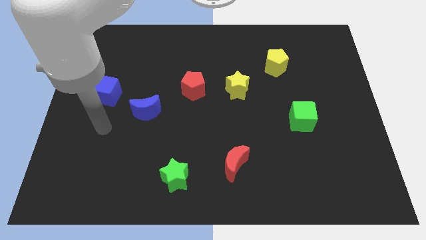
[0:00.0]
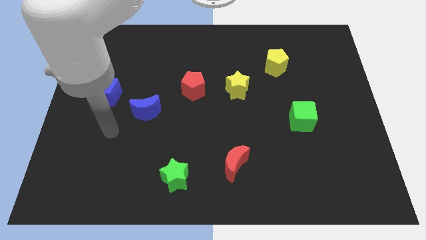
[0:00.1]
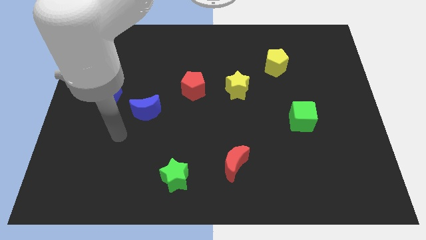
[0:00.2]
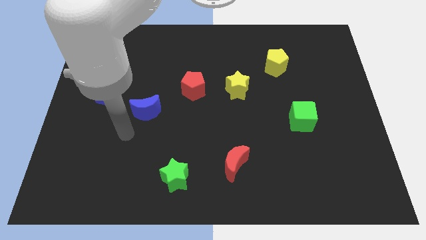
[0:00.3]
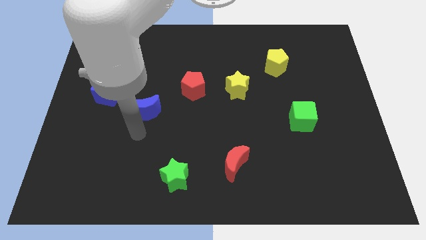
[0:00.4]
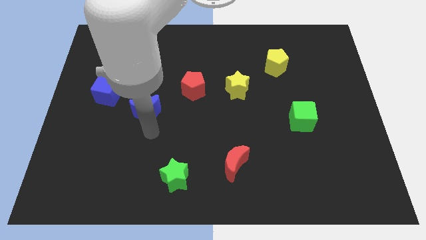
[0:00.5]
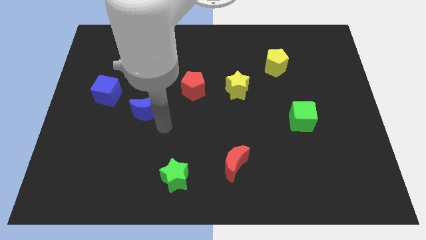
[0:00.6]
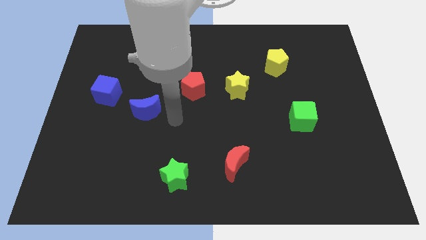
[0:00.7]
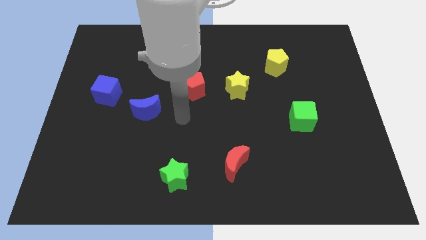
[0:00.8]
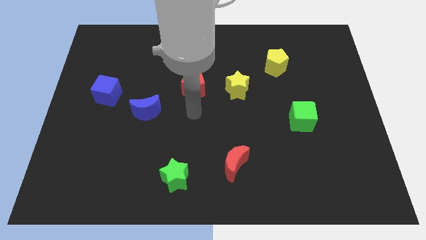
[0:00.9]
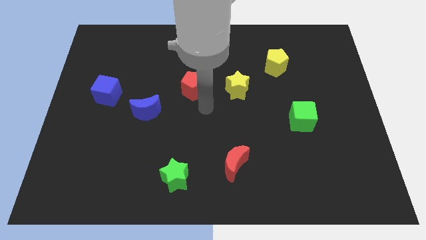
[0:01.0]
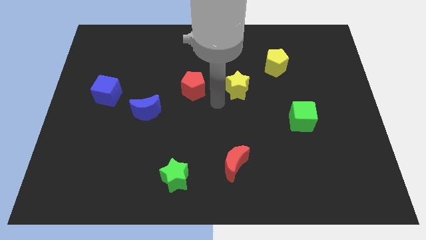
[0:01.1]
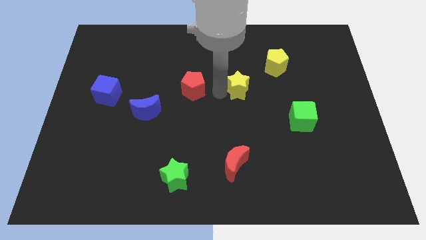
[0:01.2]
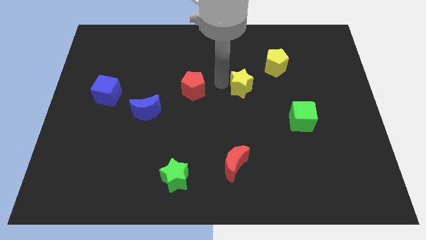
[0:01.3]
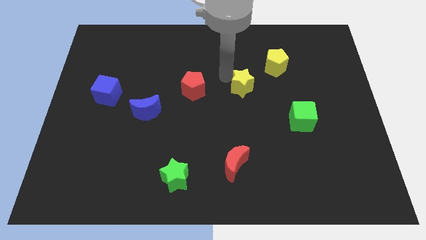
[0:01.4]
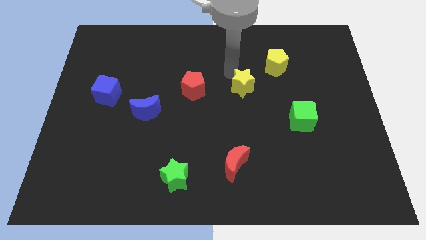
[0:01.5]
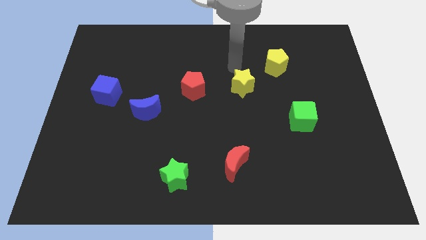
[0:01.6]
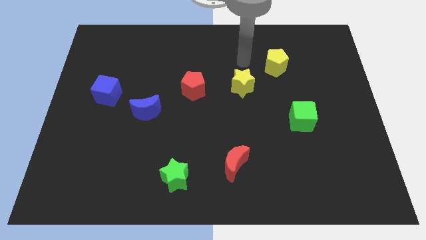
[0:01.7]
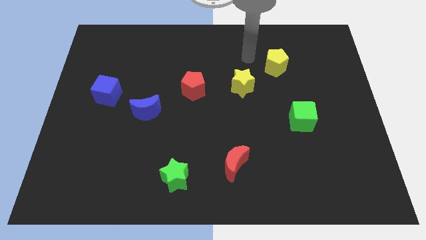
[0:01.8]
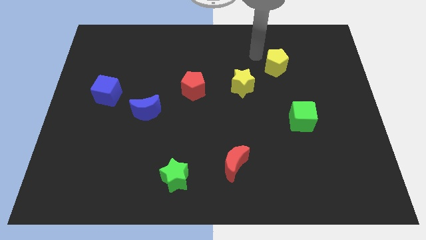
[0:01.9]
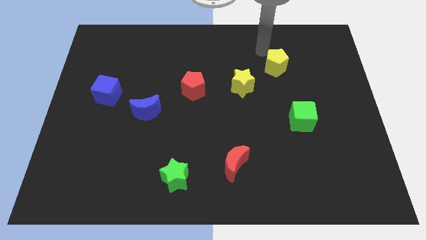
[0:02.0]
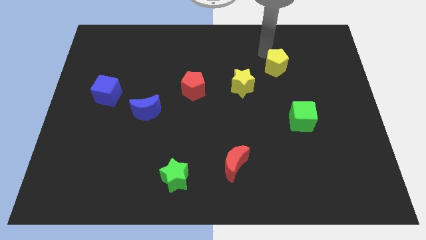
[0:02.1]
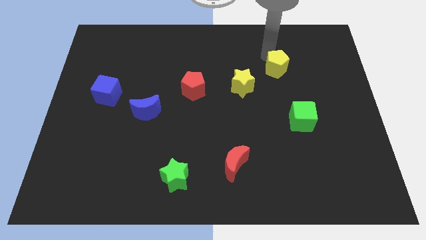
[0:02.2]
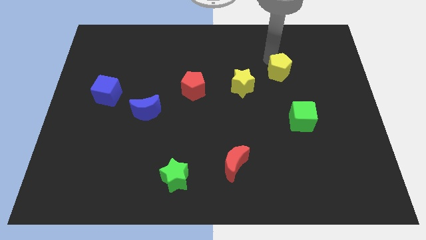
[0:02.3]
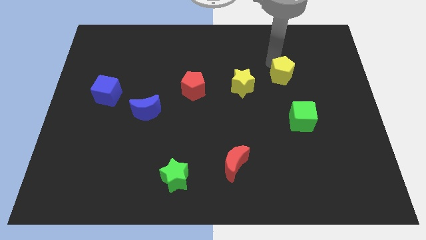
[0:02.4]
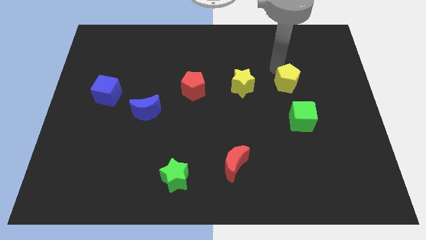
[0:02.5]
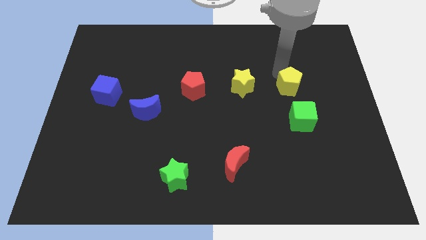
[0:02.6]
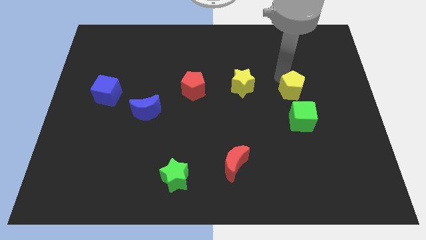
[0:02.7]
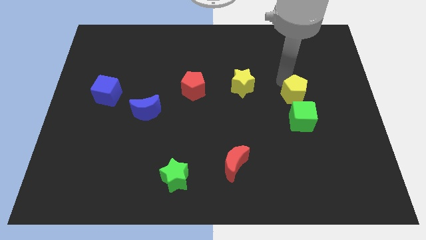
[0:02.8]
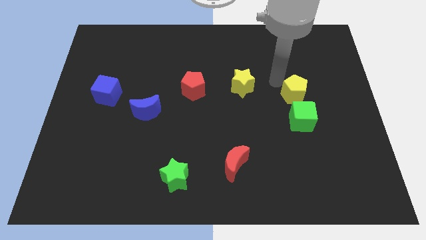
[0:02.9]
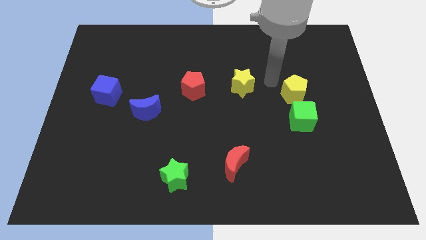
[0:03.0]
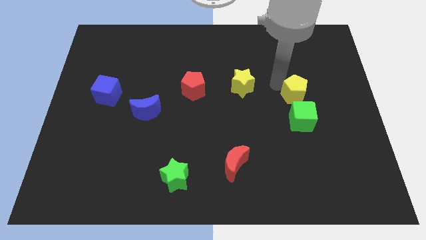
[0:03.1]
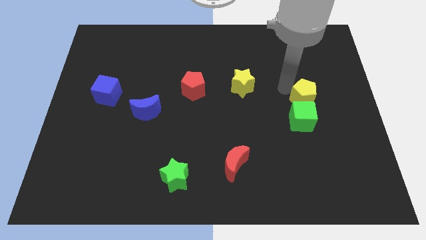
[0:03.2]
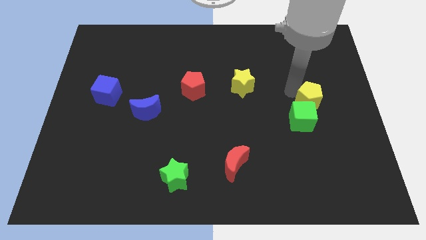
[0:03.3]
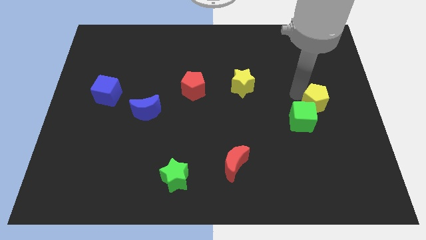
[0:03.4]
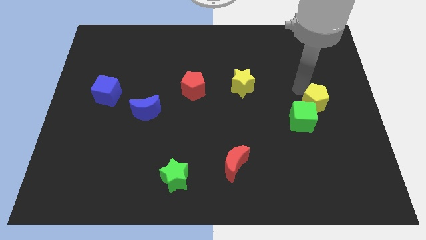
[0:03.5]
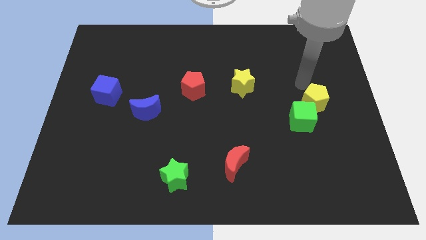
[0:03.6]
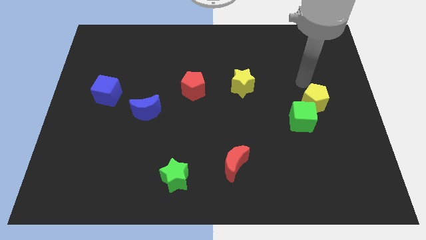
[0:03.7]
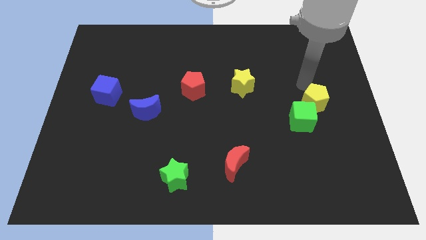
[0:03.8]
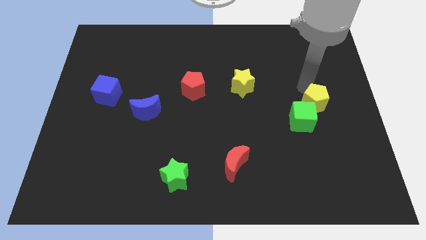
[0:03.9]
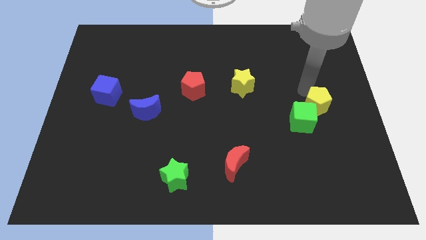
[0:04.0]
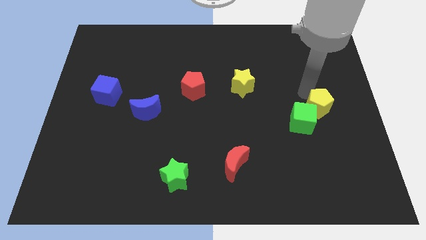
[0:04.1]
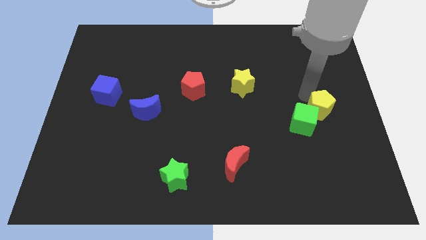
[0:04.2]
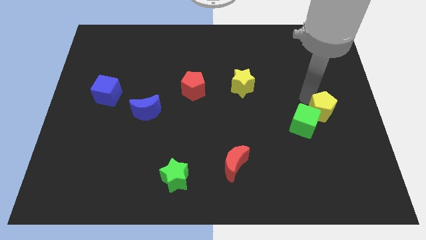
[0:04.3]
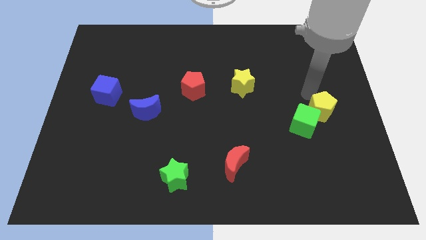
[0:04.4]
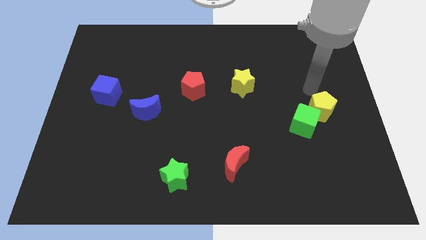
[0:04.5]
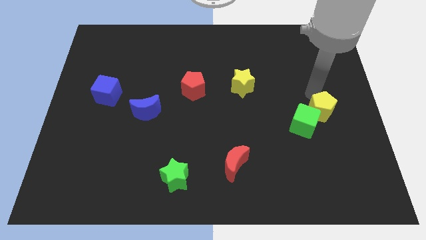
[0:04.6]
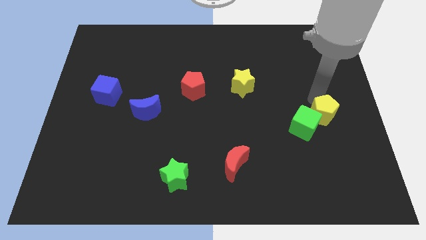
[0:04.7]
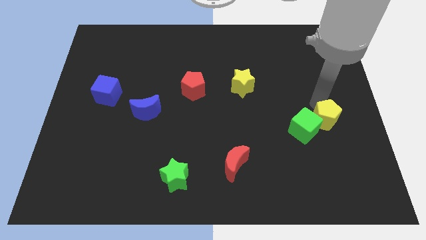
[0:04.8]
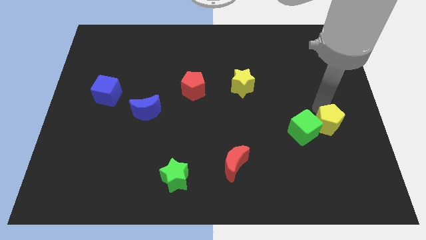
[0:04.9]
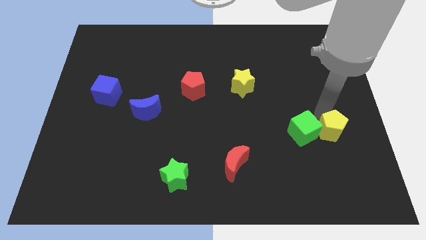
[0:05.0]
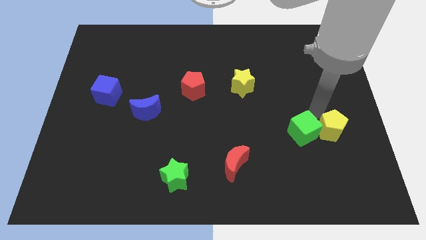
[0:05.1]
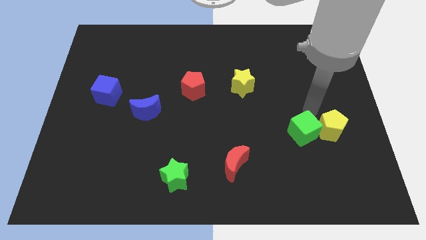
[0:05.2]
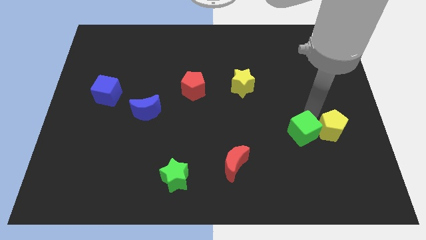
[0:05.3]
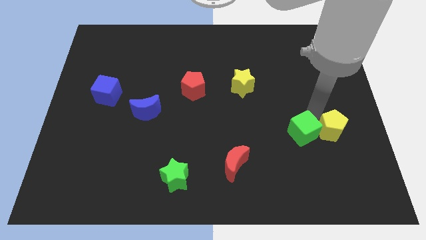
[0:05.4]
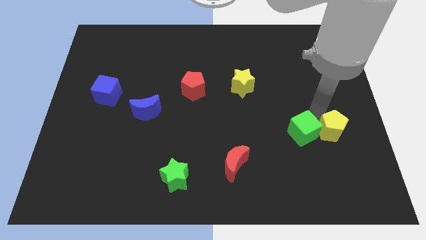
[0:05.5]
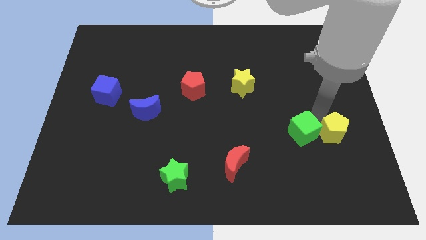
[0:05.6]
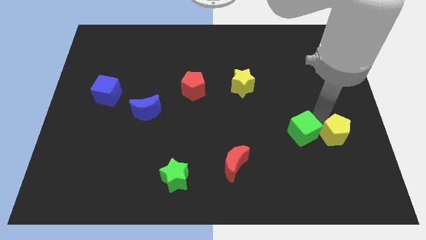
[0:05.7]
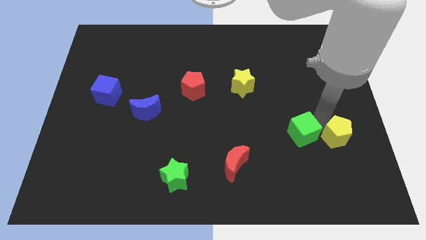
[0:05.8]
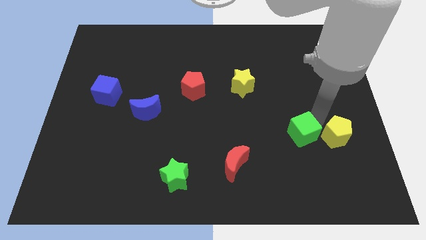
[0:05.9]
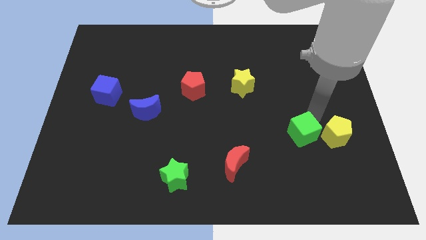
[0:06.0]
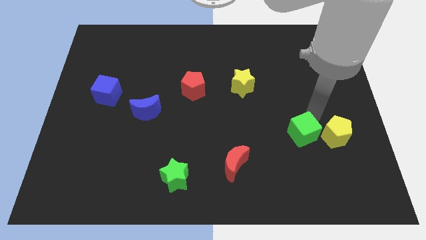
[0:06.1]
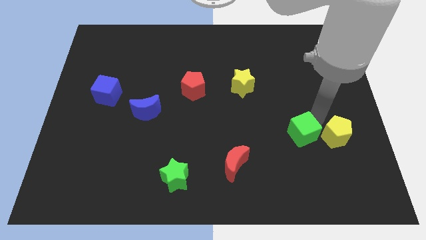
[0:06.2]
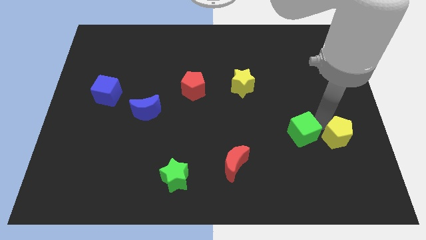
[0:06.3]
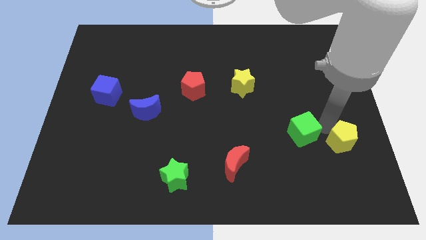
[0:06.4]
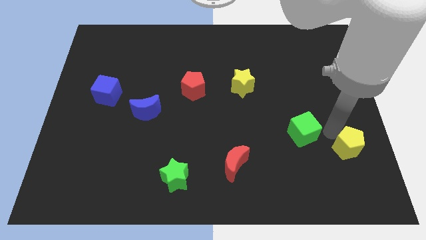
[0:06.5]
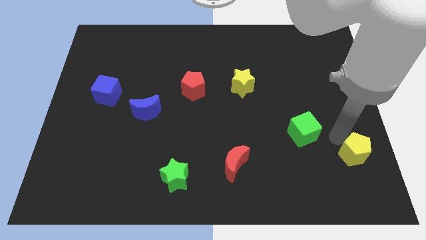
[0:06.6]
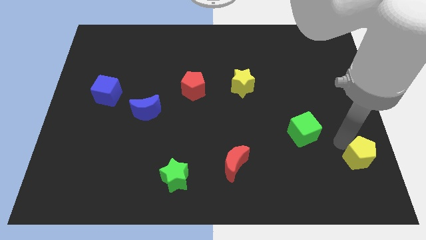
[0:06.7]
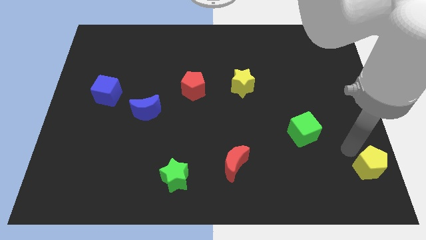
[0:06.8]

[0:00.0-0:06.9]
move the yellow pentagon to the bottom right corner
